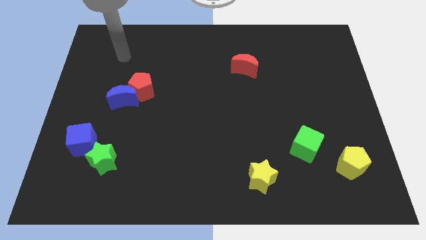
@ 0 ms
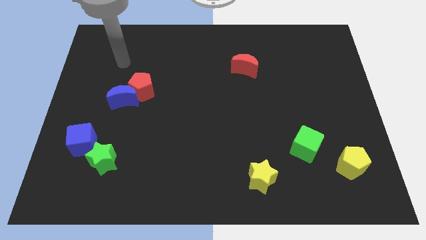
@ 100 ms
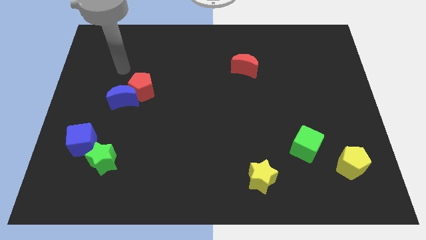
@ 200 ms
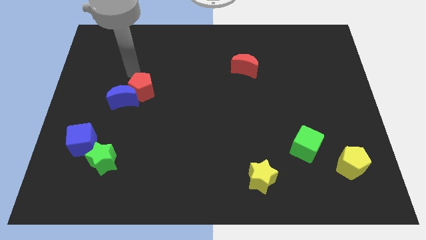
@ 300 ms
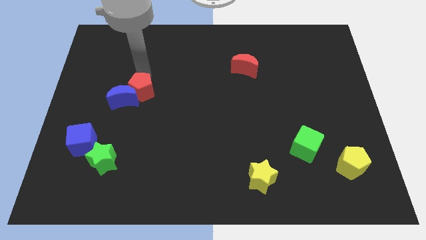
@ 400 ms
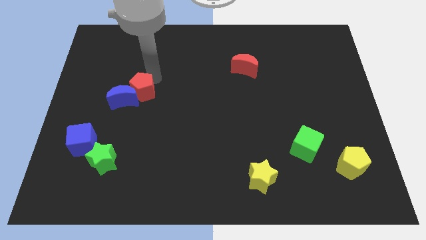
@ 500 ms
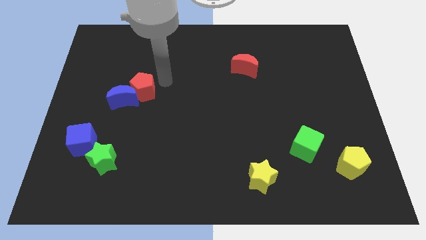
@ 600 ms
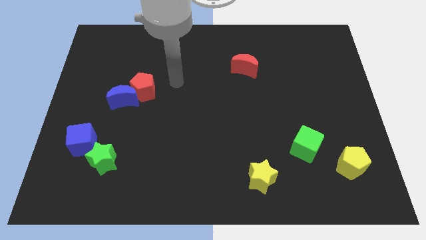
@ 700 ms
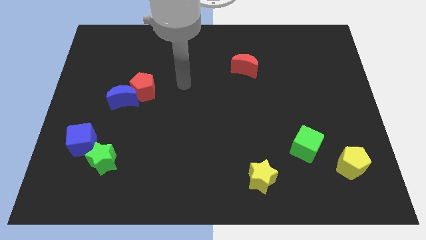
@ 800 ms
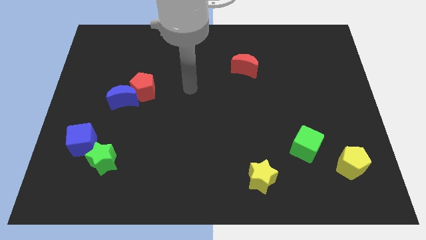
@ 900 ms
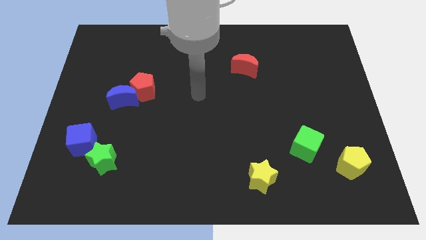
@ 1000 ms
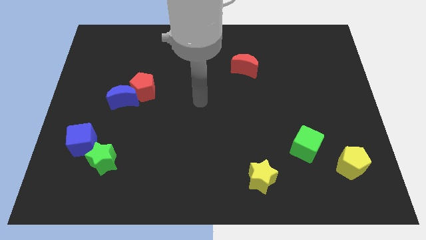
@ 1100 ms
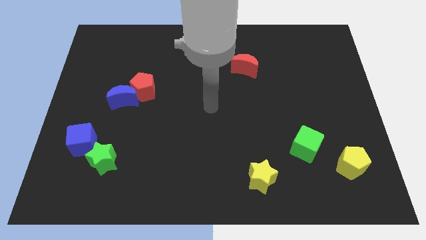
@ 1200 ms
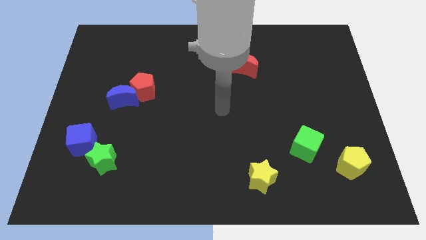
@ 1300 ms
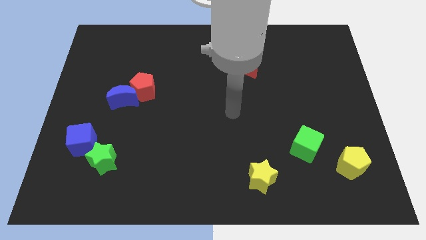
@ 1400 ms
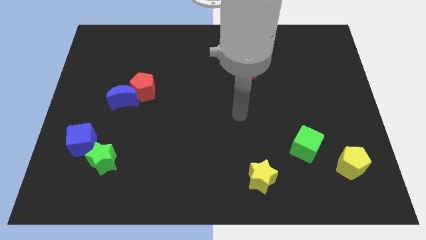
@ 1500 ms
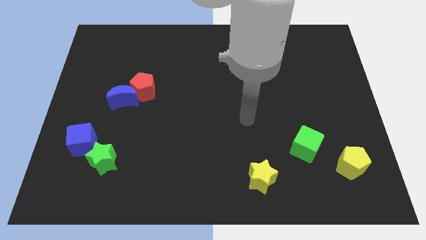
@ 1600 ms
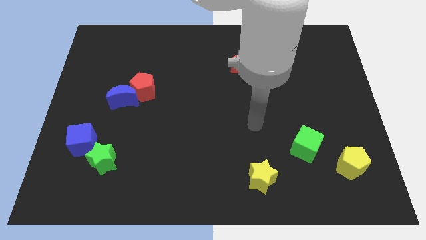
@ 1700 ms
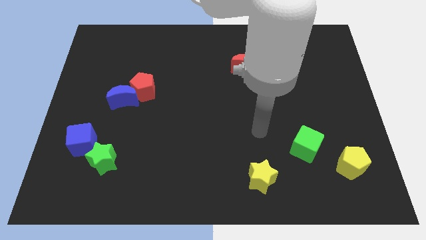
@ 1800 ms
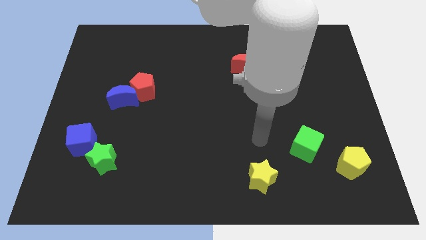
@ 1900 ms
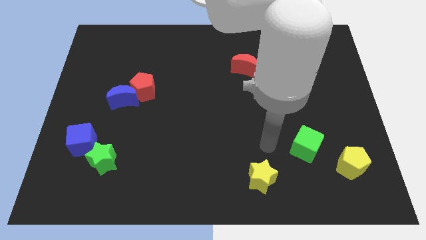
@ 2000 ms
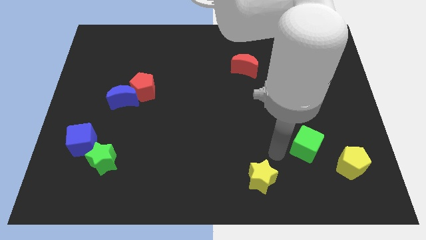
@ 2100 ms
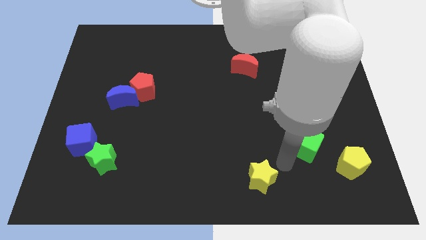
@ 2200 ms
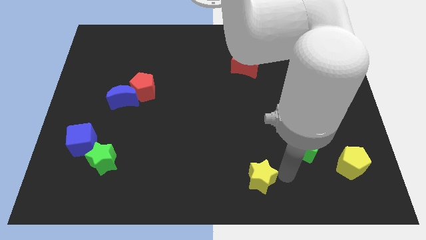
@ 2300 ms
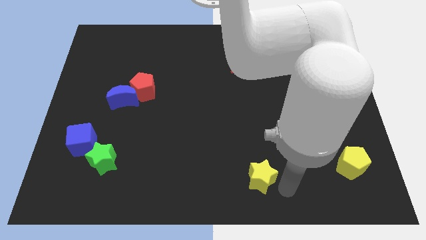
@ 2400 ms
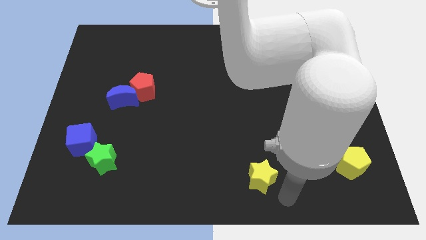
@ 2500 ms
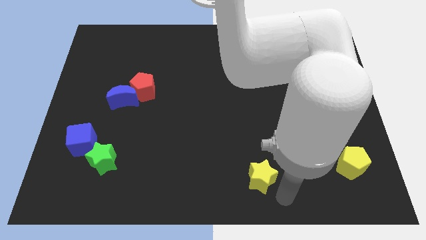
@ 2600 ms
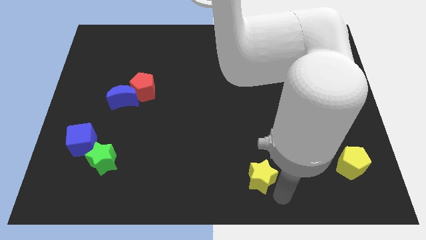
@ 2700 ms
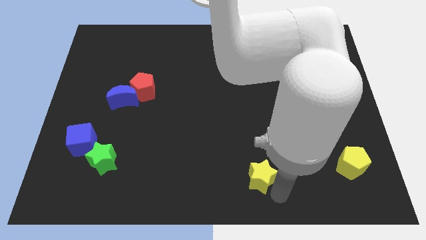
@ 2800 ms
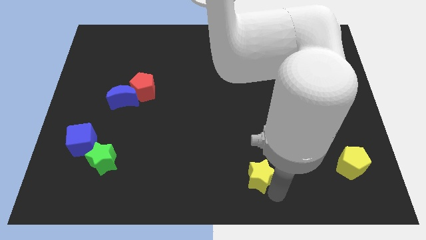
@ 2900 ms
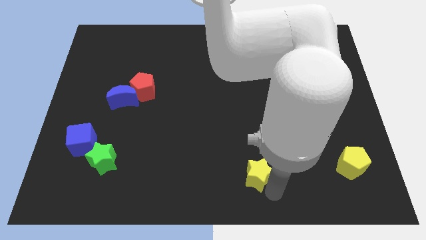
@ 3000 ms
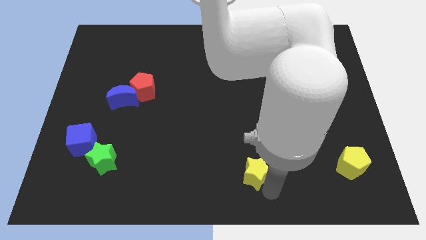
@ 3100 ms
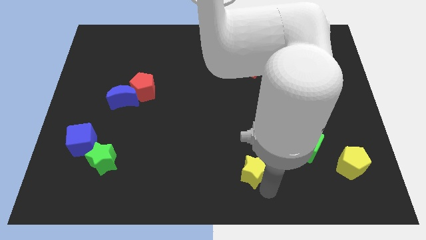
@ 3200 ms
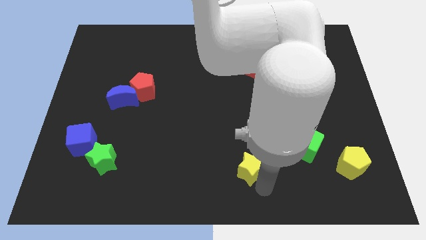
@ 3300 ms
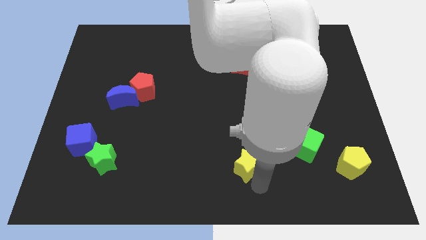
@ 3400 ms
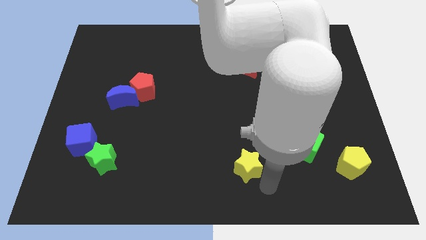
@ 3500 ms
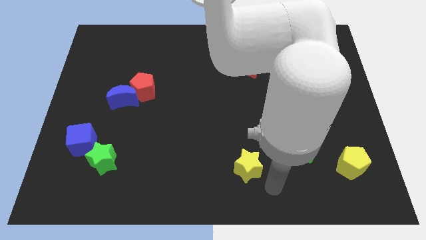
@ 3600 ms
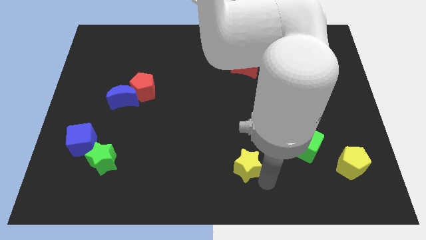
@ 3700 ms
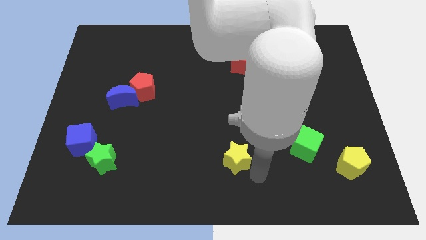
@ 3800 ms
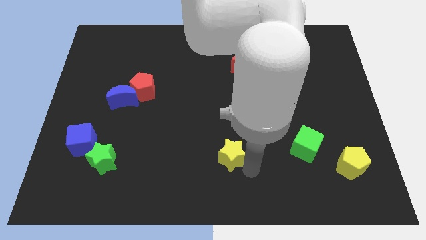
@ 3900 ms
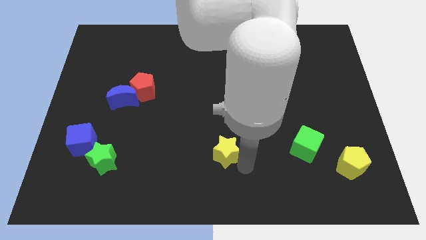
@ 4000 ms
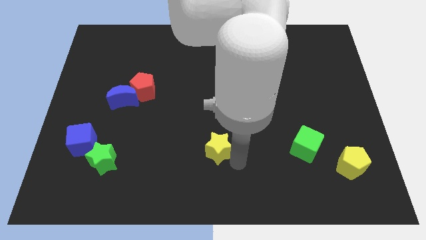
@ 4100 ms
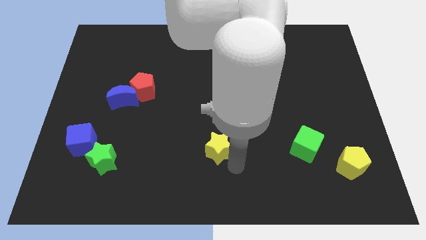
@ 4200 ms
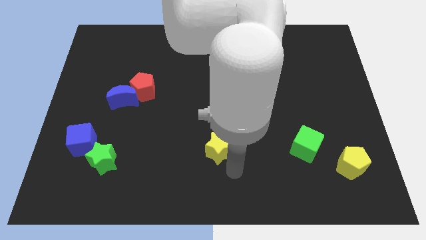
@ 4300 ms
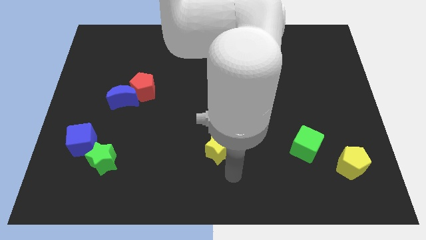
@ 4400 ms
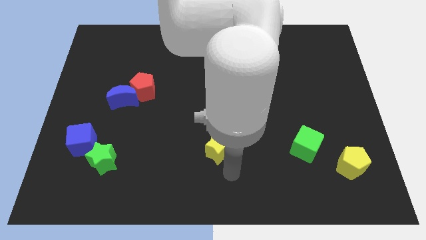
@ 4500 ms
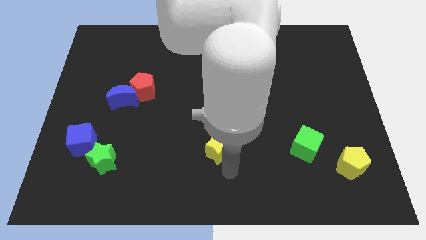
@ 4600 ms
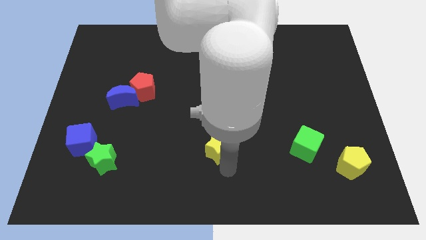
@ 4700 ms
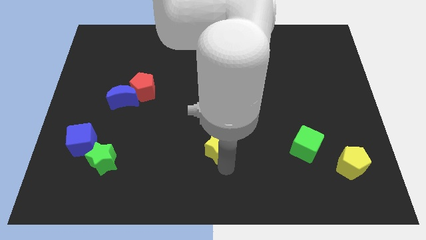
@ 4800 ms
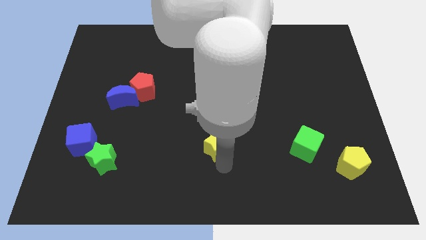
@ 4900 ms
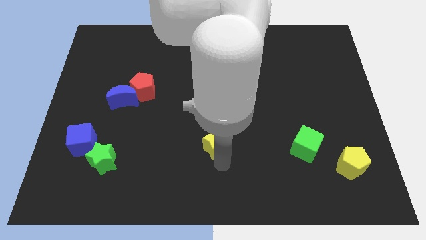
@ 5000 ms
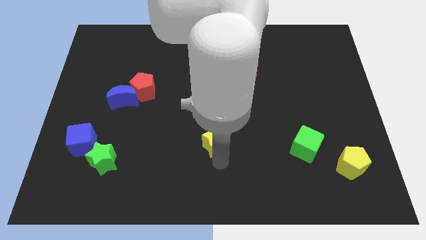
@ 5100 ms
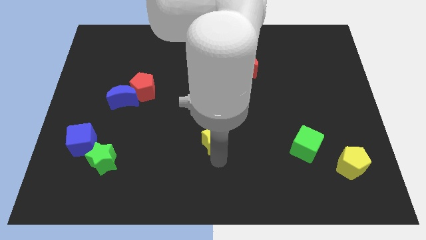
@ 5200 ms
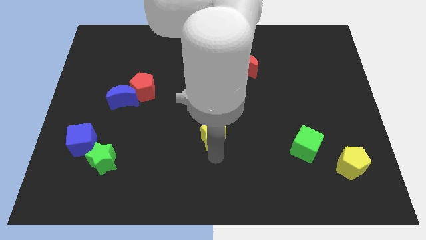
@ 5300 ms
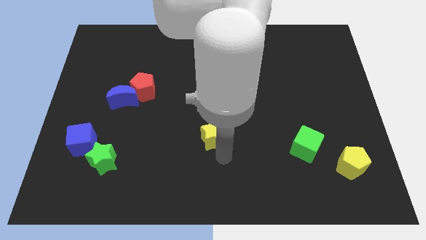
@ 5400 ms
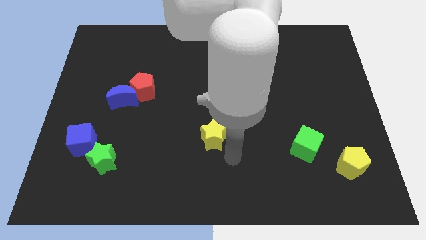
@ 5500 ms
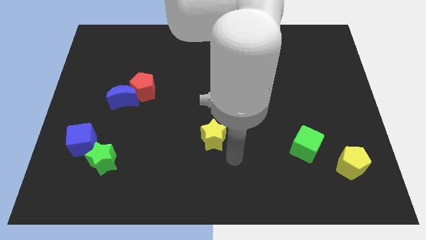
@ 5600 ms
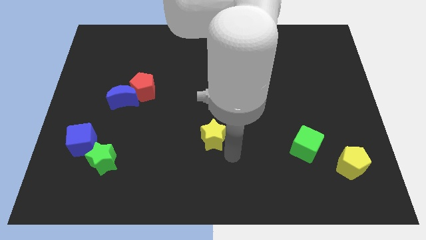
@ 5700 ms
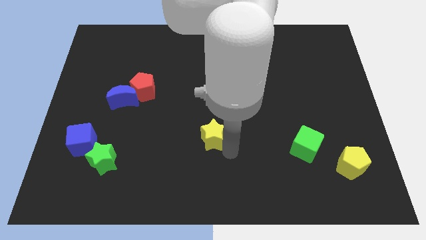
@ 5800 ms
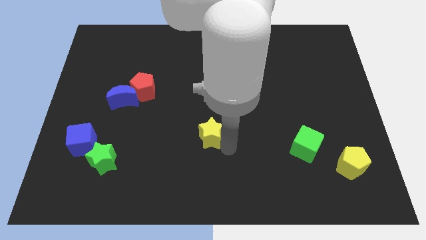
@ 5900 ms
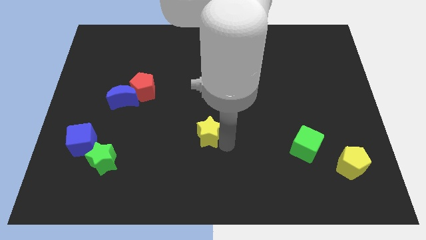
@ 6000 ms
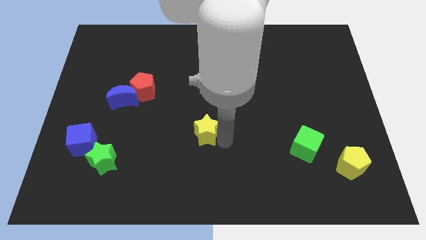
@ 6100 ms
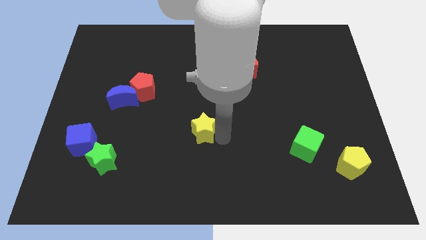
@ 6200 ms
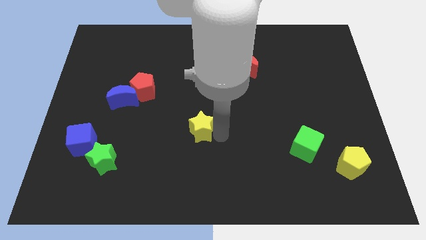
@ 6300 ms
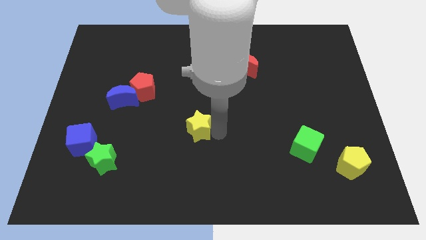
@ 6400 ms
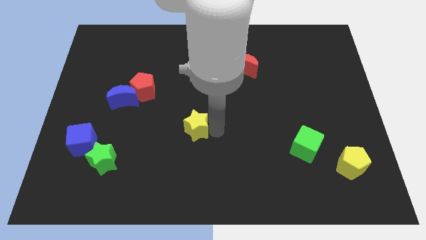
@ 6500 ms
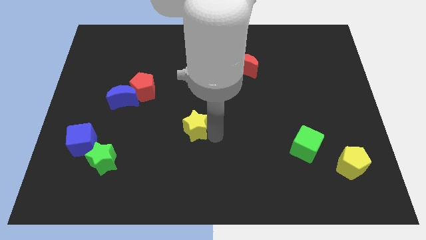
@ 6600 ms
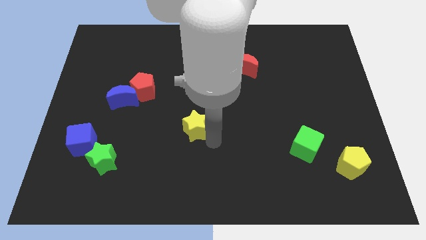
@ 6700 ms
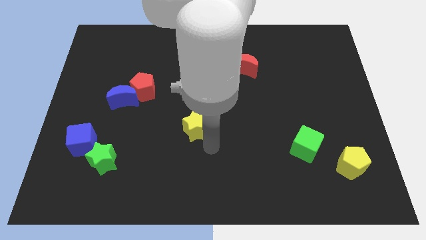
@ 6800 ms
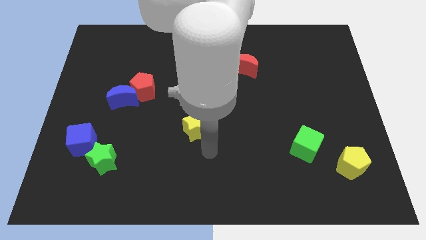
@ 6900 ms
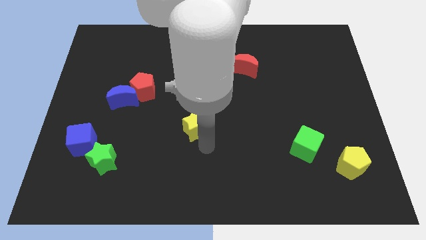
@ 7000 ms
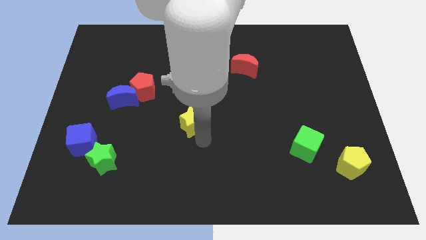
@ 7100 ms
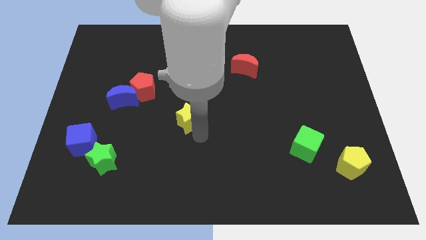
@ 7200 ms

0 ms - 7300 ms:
slide the yellow star diagonally upwards and to the left

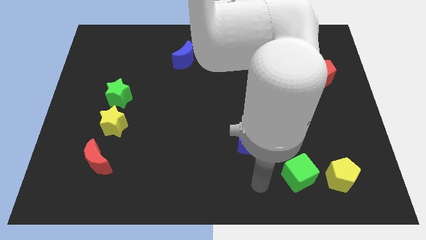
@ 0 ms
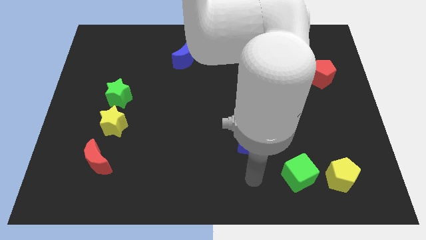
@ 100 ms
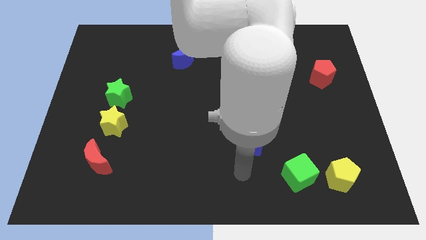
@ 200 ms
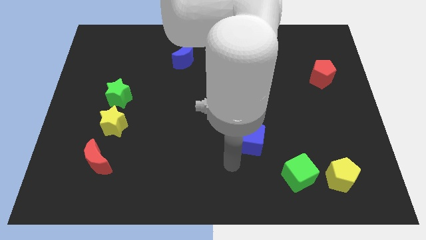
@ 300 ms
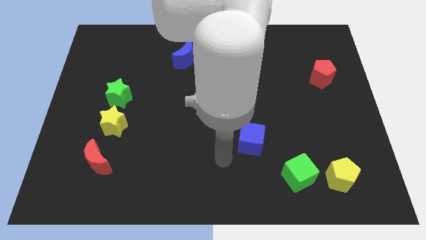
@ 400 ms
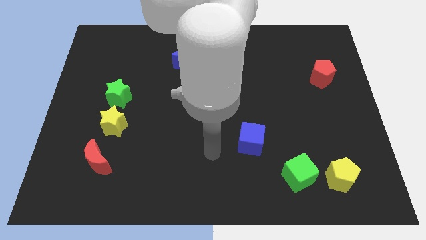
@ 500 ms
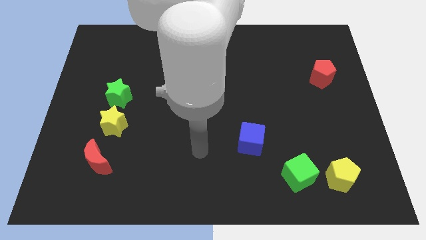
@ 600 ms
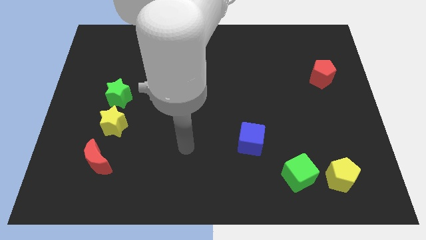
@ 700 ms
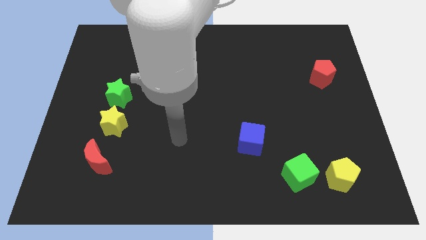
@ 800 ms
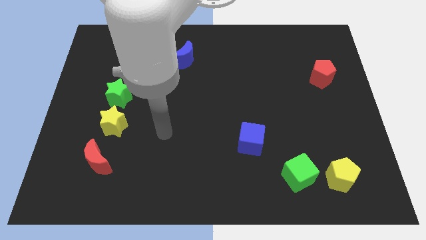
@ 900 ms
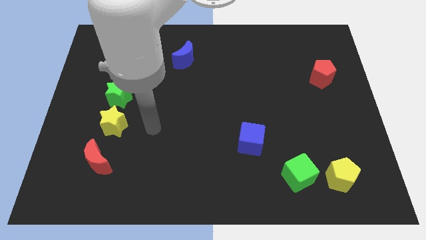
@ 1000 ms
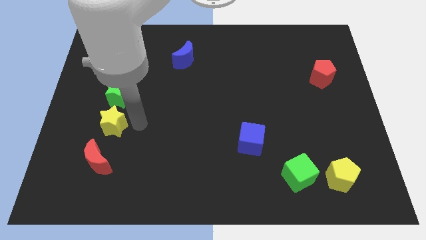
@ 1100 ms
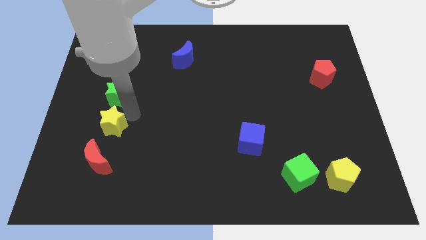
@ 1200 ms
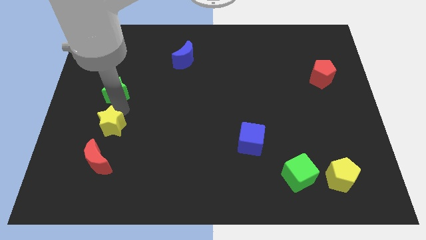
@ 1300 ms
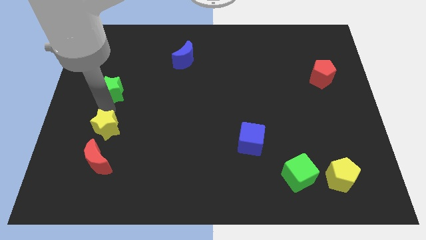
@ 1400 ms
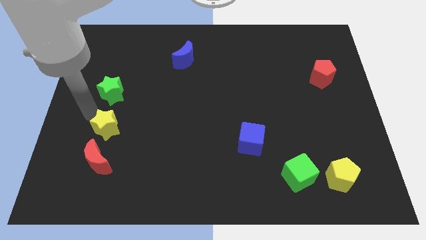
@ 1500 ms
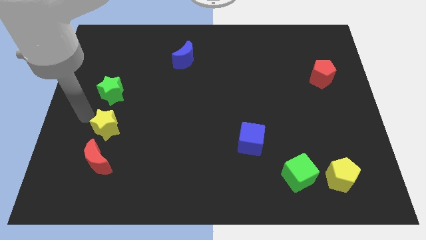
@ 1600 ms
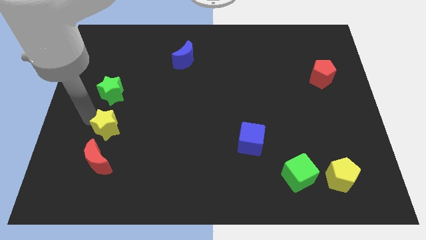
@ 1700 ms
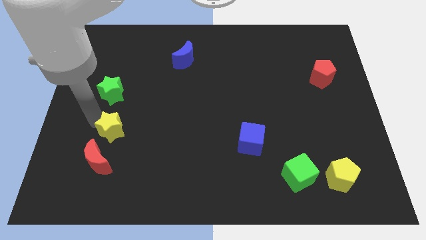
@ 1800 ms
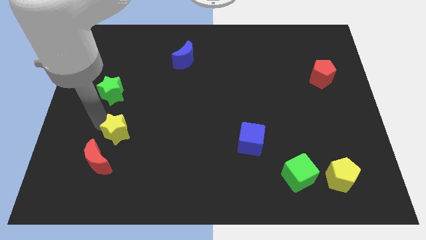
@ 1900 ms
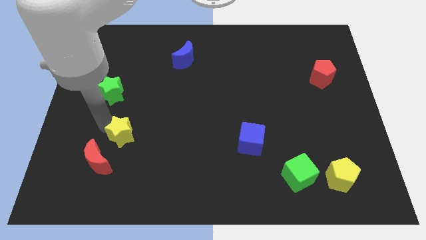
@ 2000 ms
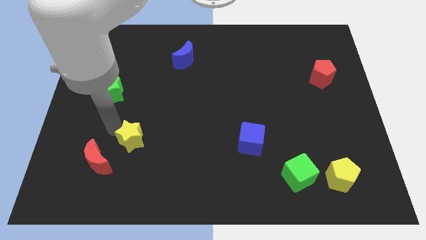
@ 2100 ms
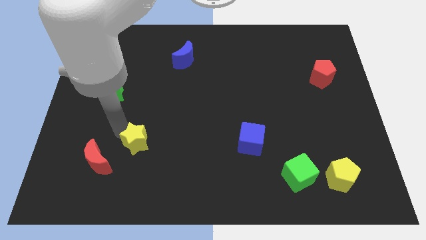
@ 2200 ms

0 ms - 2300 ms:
slightly push the yellow star down and to the right
